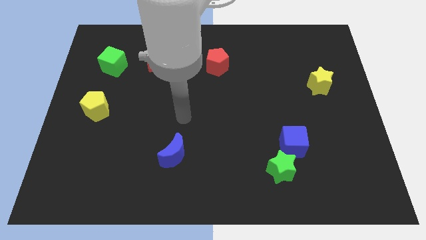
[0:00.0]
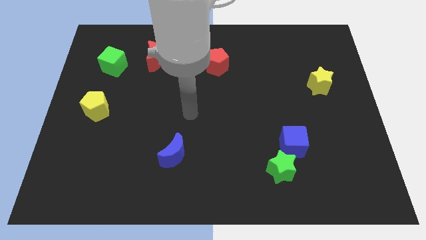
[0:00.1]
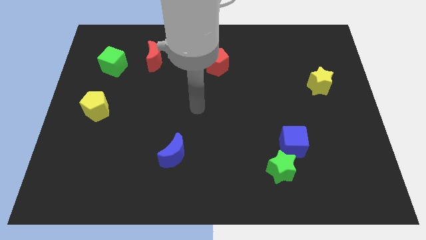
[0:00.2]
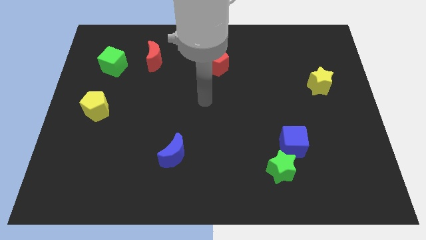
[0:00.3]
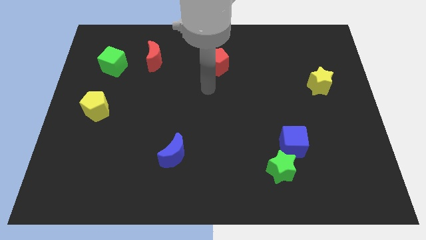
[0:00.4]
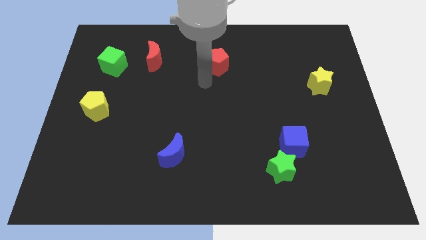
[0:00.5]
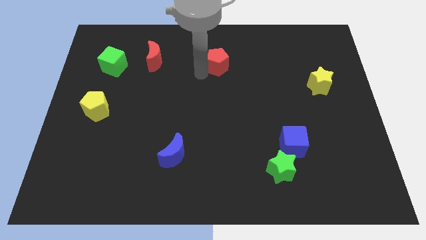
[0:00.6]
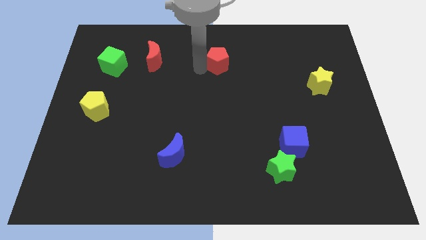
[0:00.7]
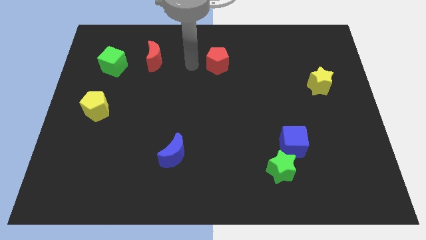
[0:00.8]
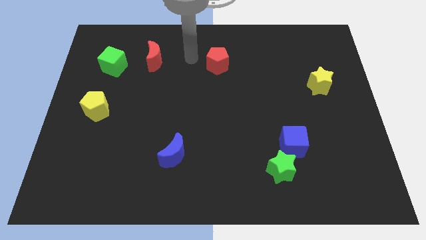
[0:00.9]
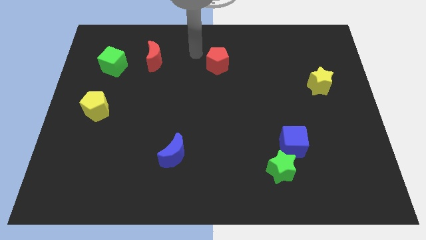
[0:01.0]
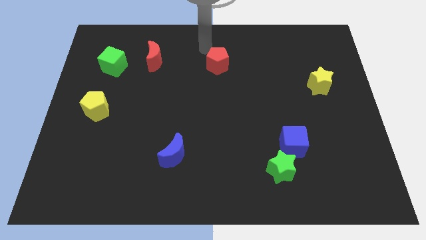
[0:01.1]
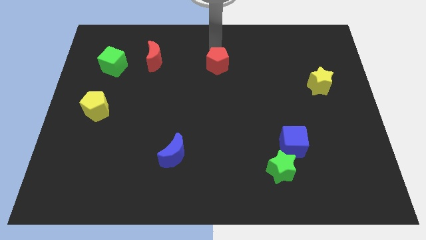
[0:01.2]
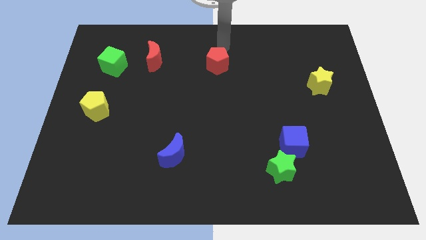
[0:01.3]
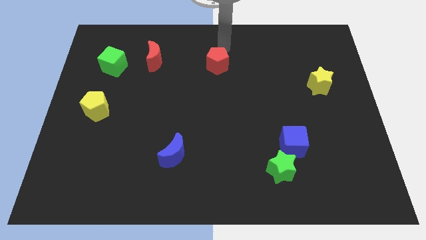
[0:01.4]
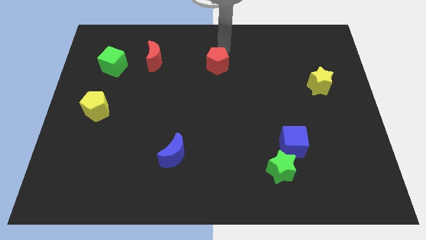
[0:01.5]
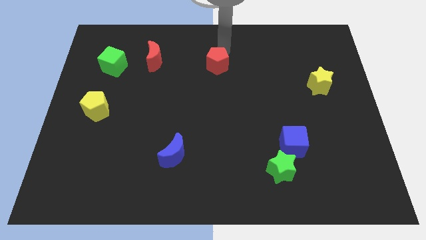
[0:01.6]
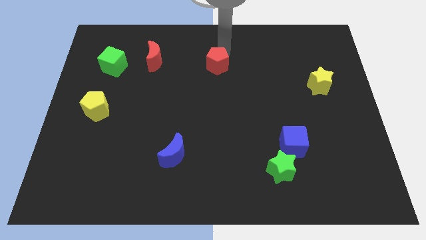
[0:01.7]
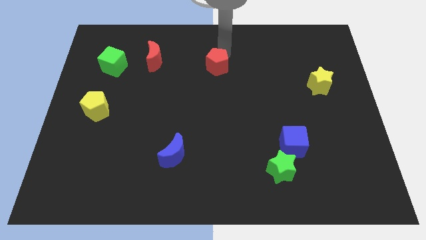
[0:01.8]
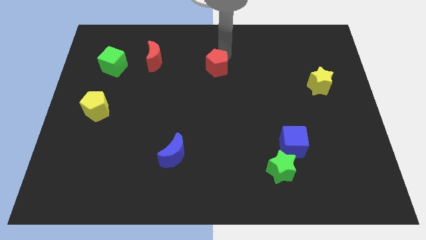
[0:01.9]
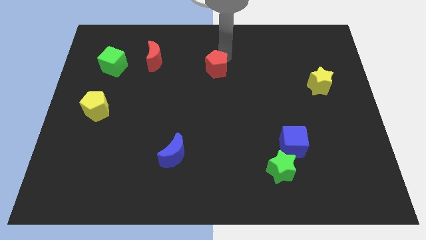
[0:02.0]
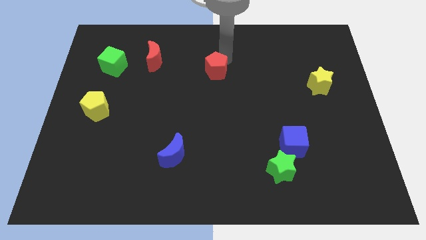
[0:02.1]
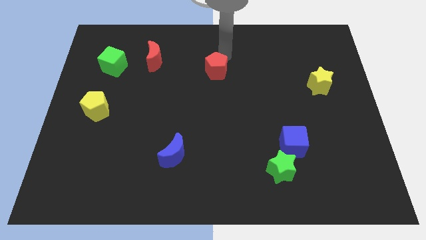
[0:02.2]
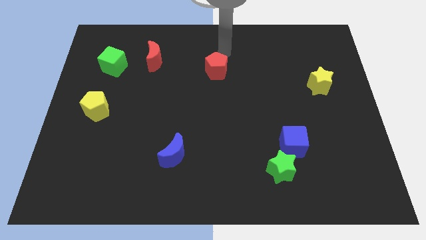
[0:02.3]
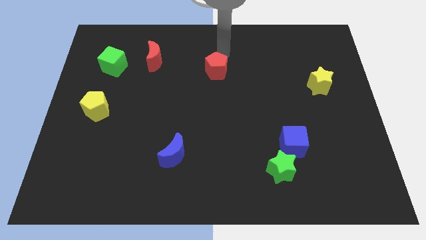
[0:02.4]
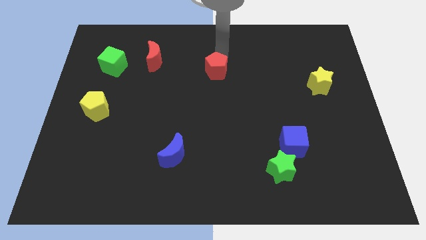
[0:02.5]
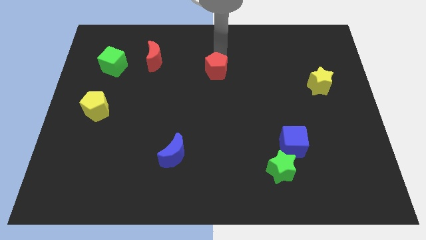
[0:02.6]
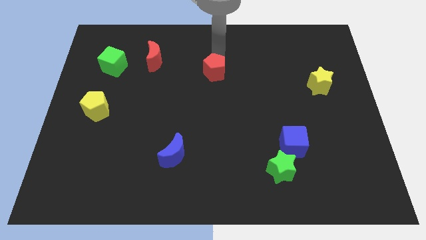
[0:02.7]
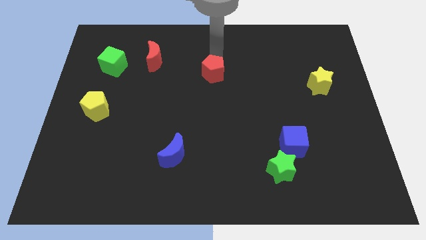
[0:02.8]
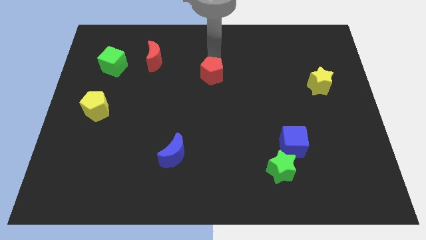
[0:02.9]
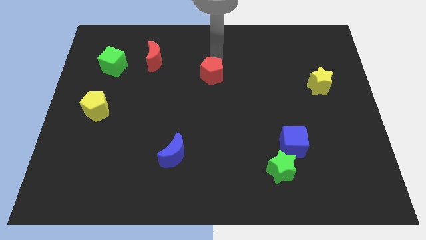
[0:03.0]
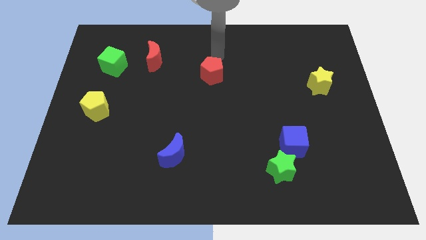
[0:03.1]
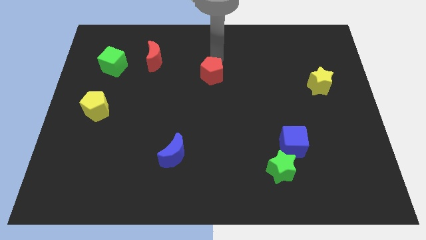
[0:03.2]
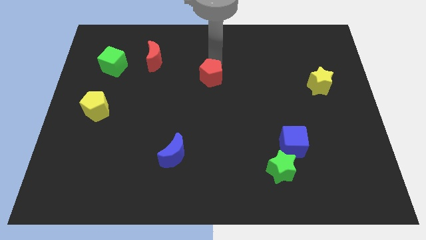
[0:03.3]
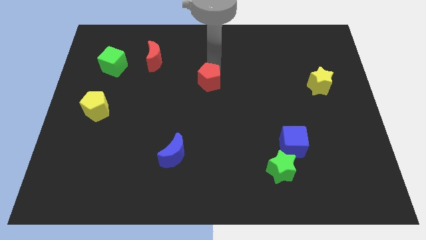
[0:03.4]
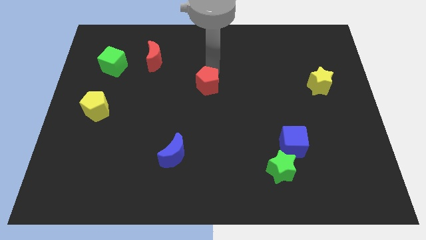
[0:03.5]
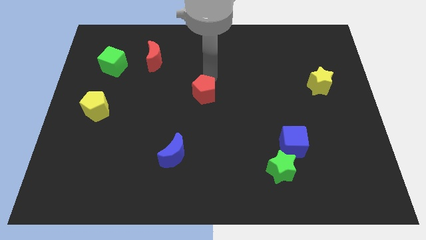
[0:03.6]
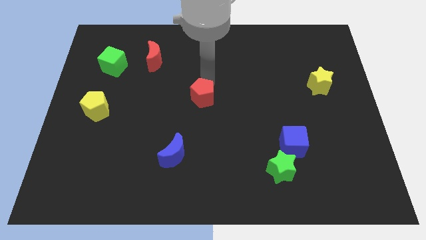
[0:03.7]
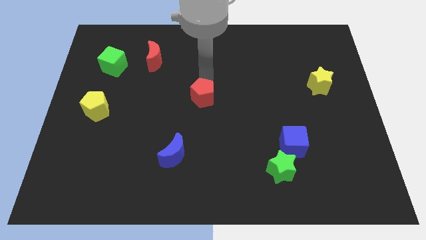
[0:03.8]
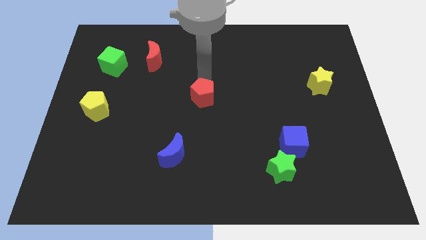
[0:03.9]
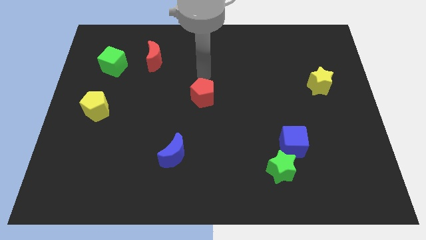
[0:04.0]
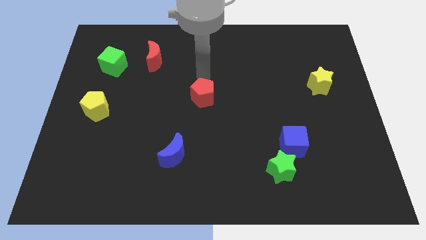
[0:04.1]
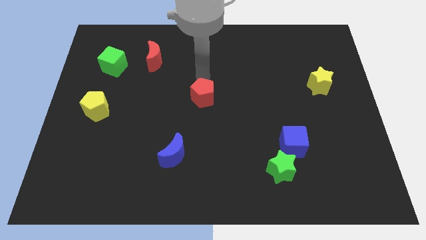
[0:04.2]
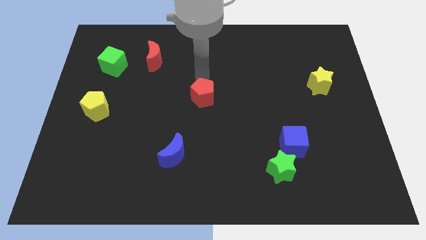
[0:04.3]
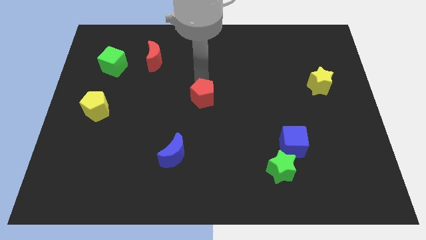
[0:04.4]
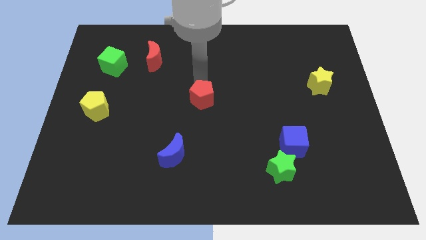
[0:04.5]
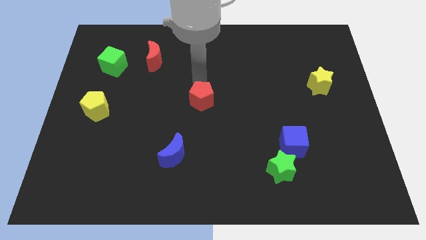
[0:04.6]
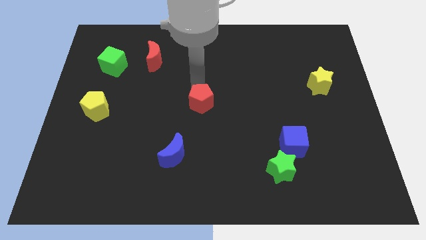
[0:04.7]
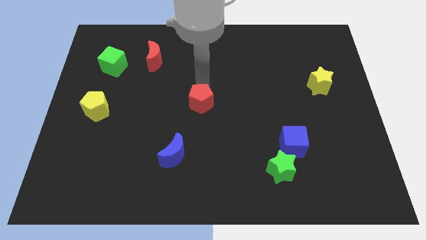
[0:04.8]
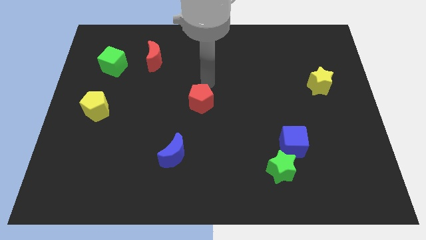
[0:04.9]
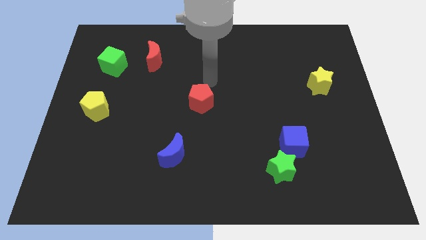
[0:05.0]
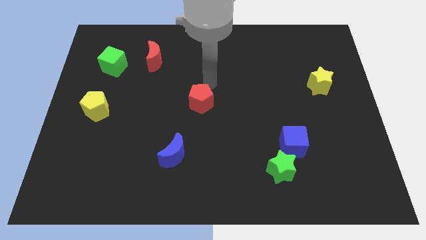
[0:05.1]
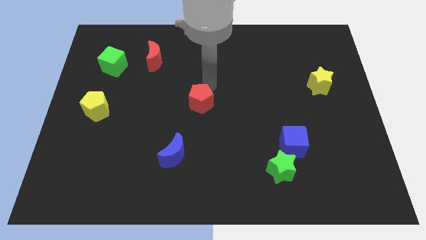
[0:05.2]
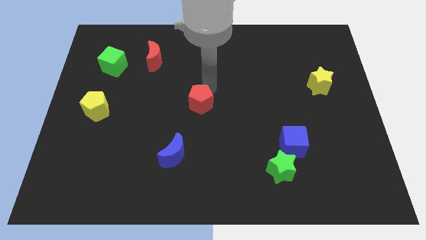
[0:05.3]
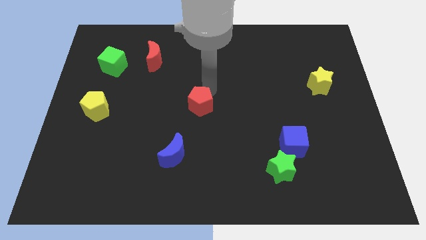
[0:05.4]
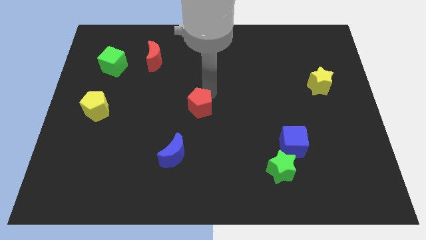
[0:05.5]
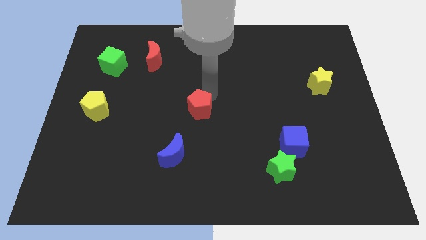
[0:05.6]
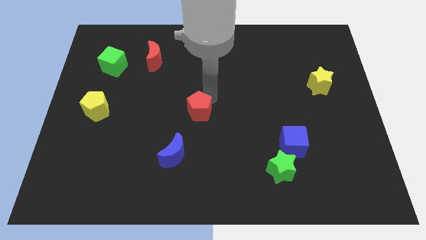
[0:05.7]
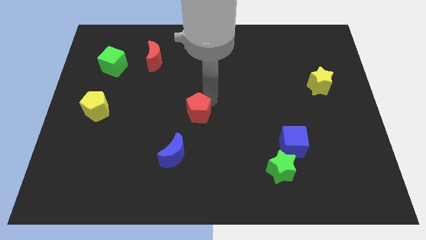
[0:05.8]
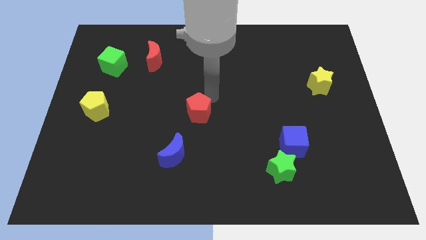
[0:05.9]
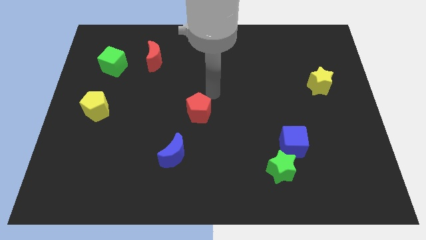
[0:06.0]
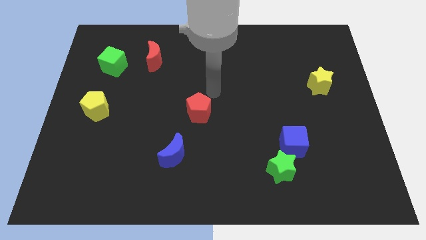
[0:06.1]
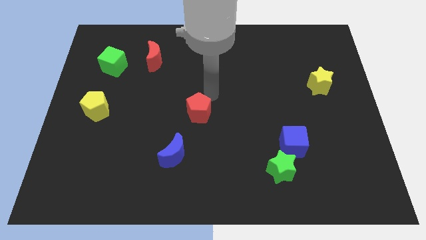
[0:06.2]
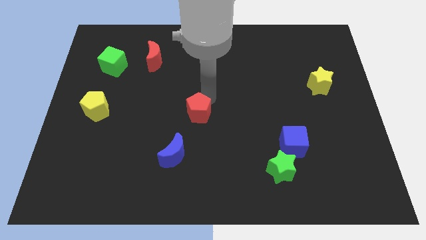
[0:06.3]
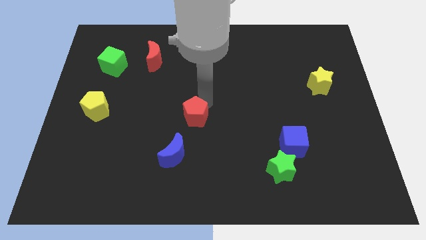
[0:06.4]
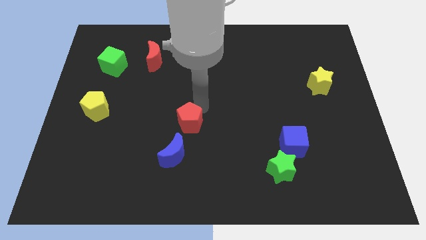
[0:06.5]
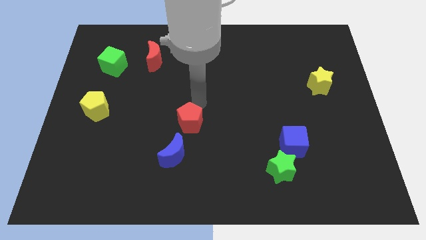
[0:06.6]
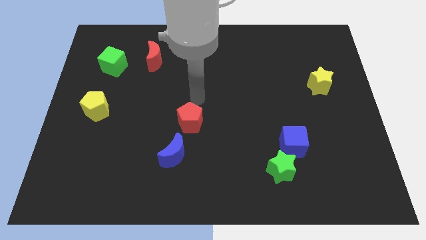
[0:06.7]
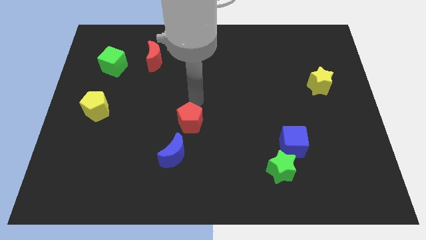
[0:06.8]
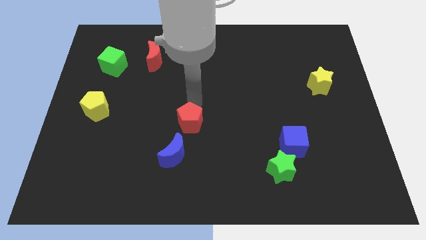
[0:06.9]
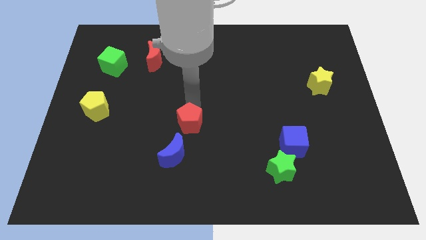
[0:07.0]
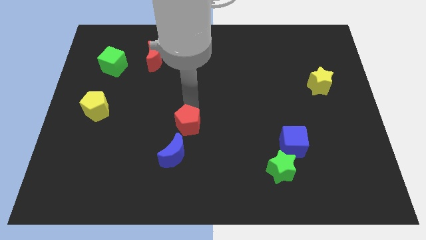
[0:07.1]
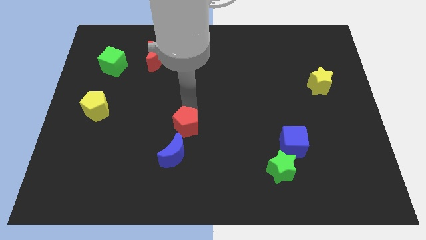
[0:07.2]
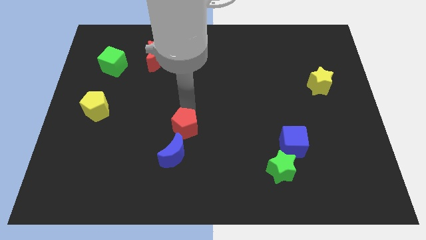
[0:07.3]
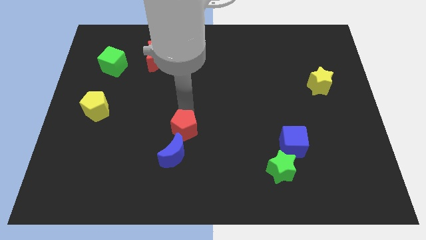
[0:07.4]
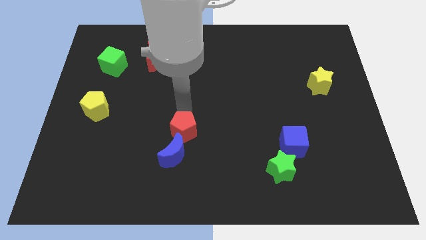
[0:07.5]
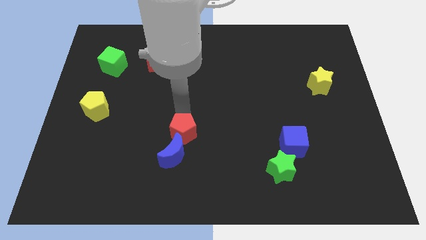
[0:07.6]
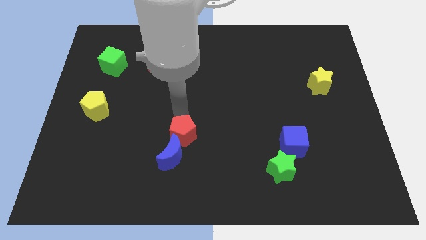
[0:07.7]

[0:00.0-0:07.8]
move the red pentagon next to the blue moon
